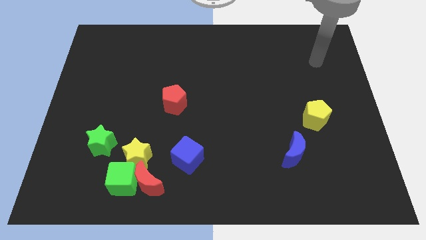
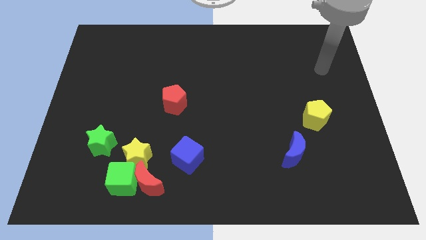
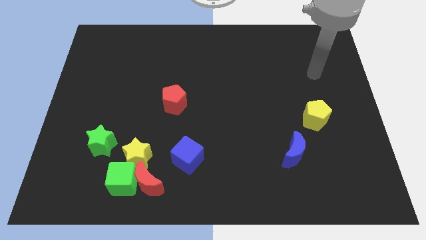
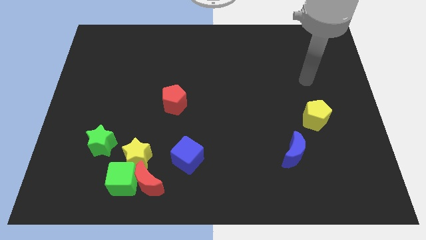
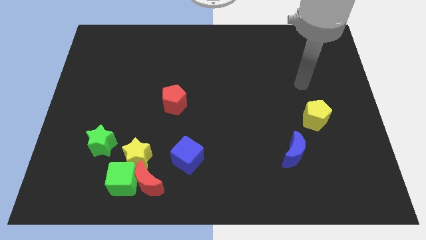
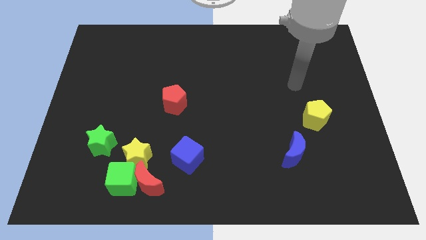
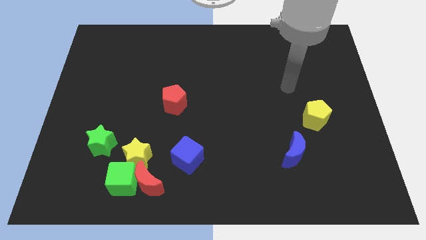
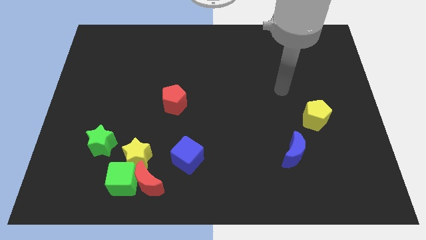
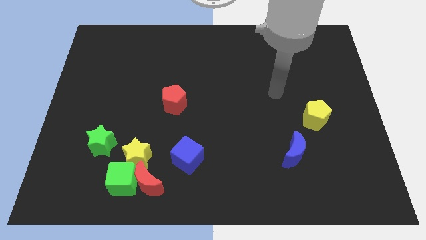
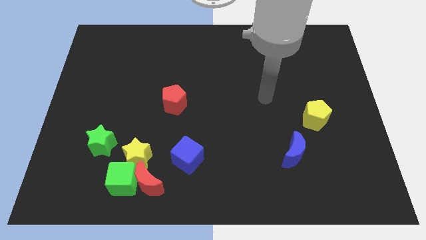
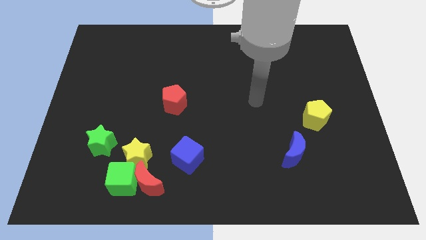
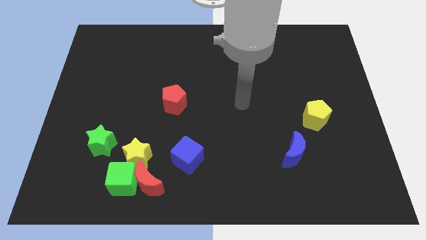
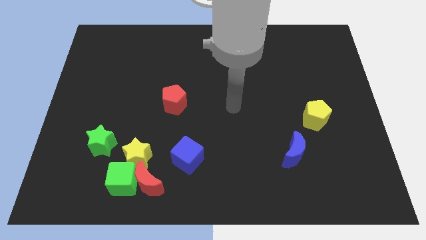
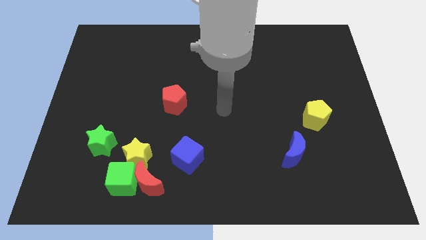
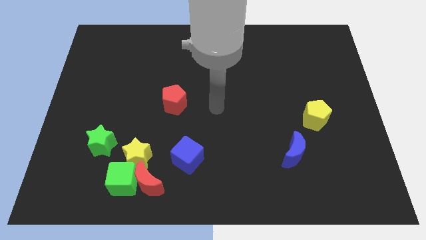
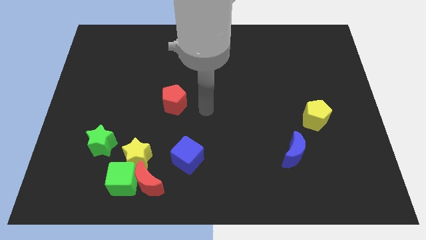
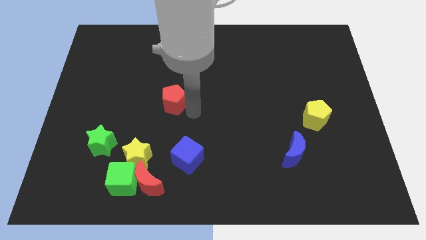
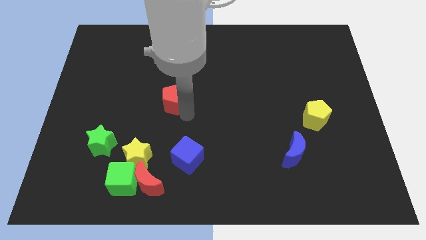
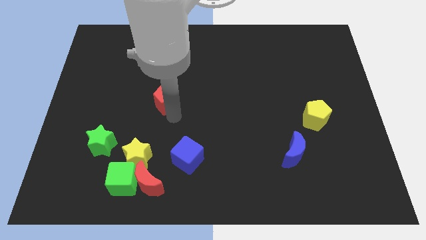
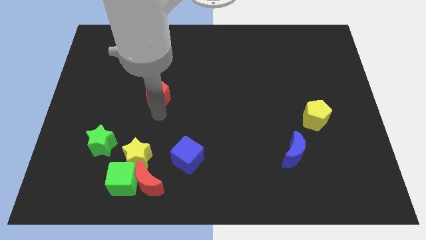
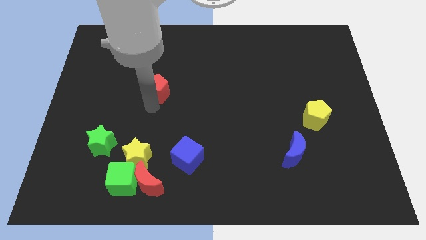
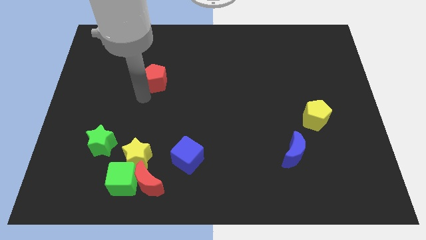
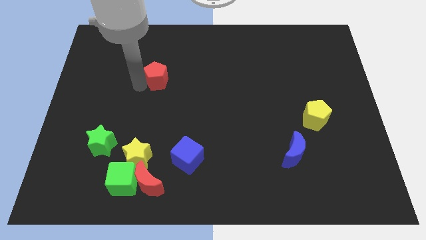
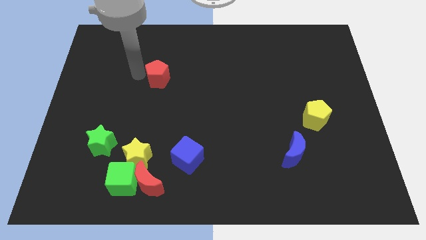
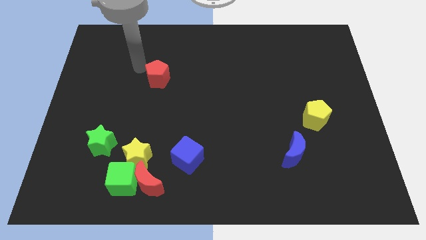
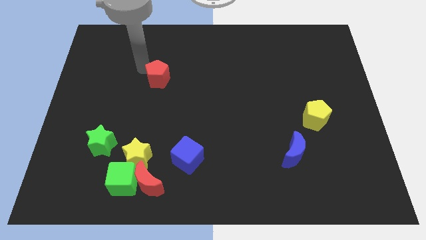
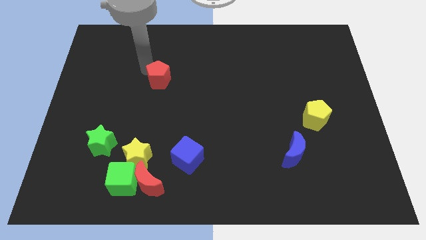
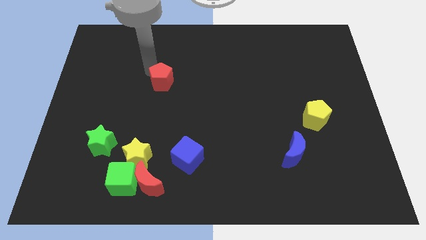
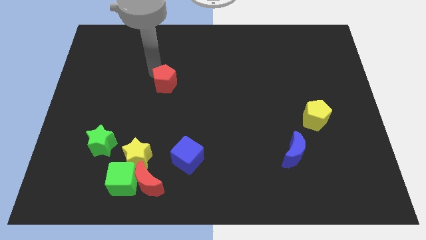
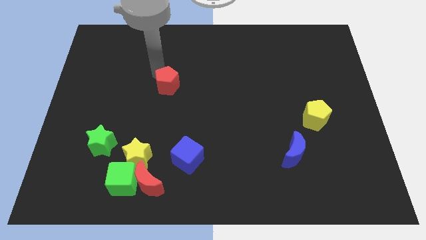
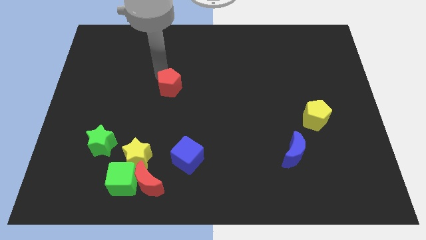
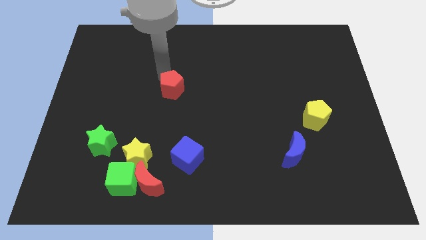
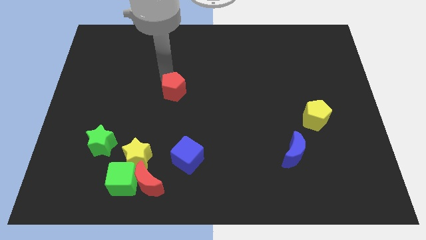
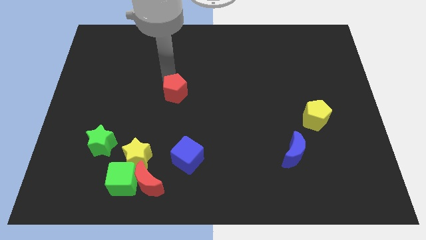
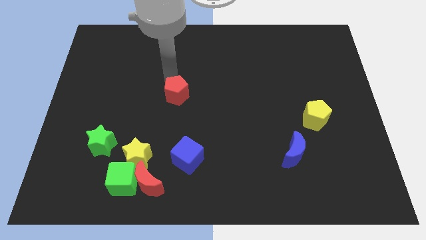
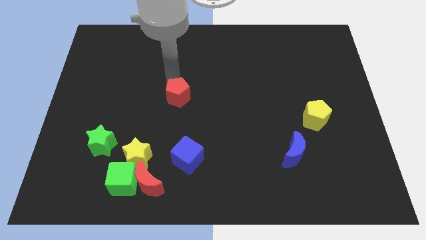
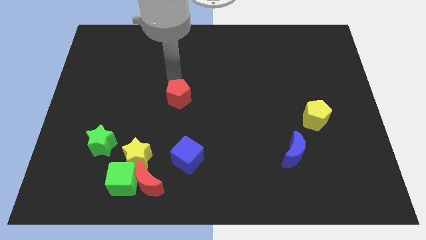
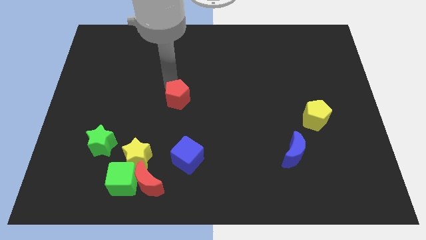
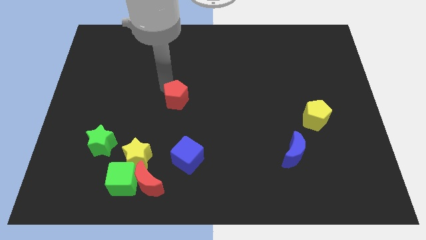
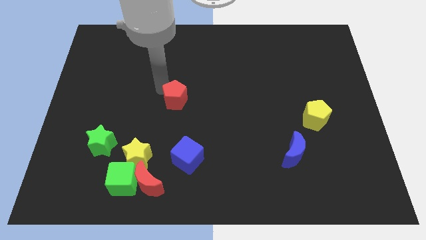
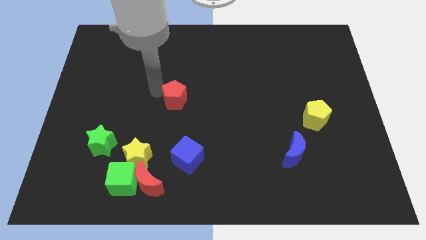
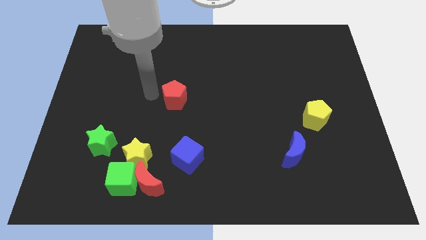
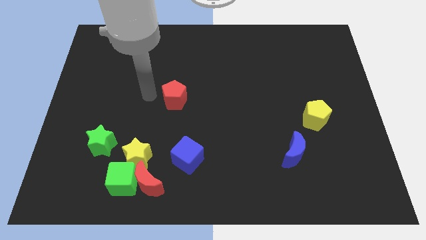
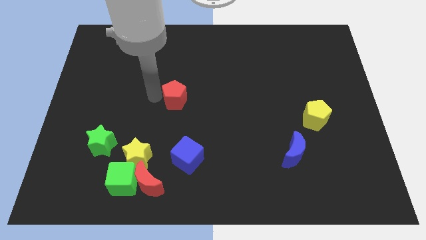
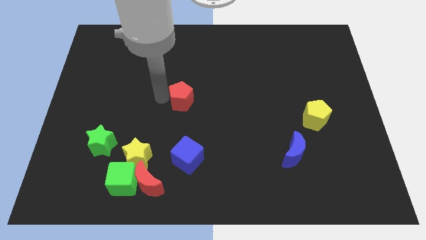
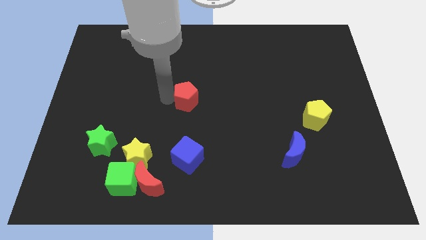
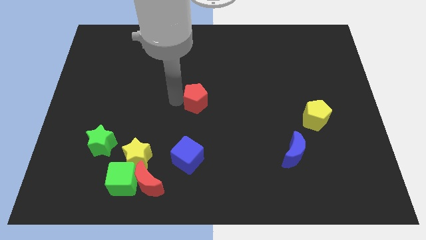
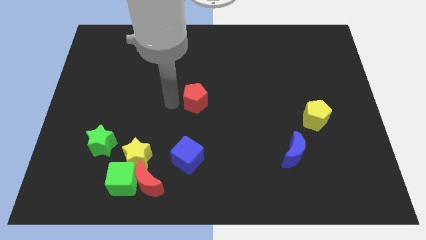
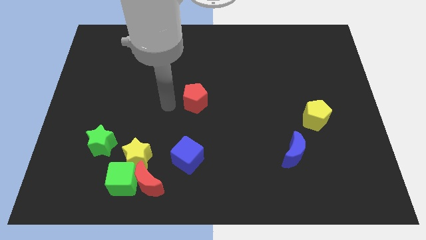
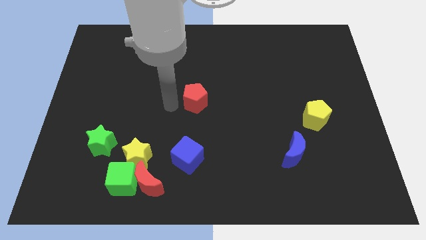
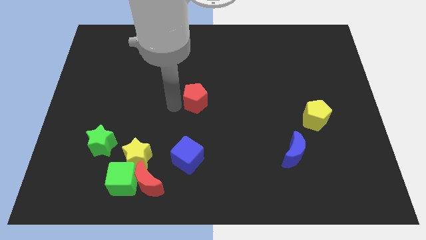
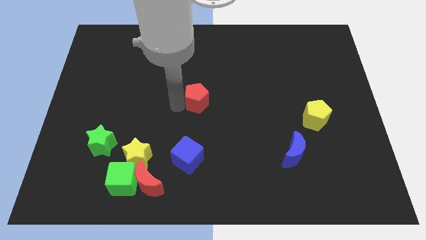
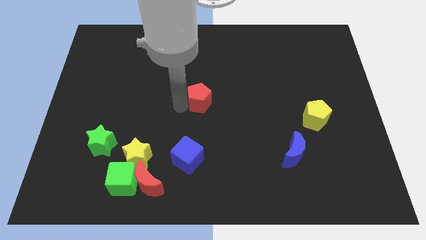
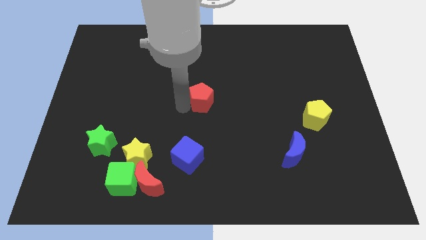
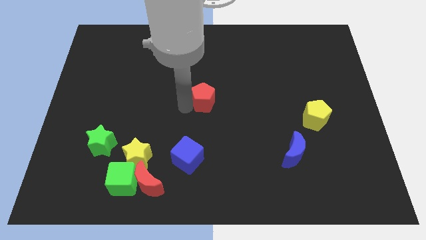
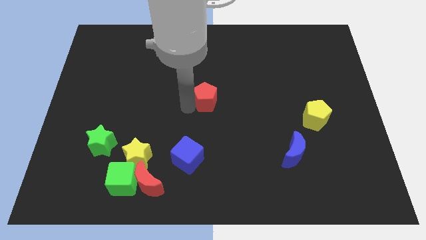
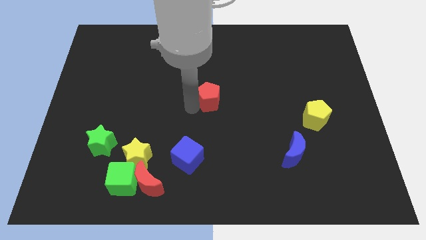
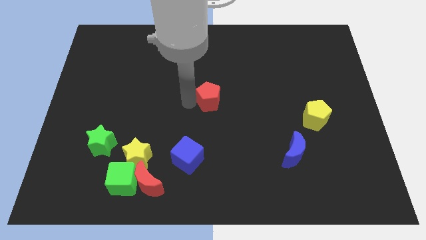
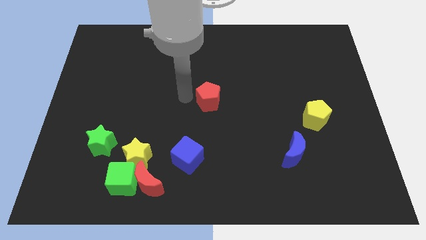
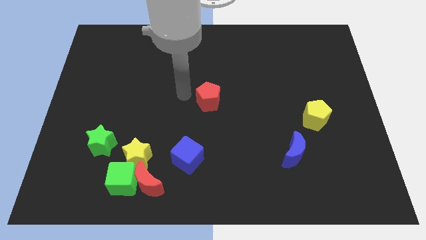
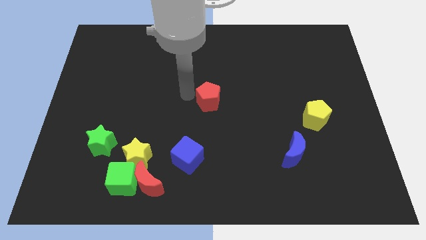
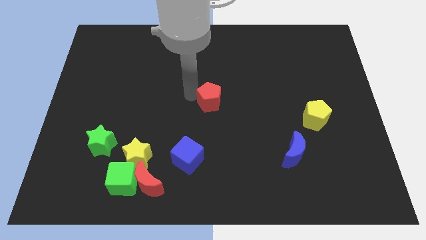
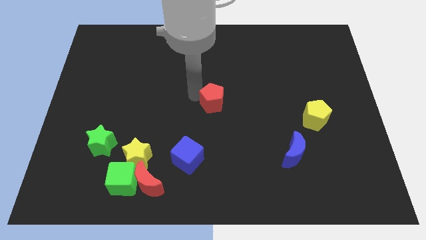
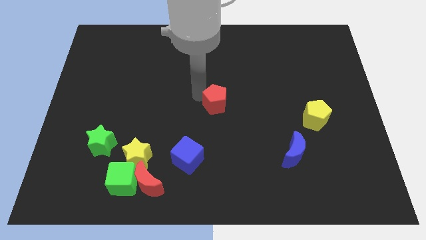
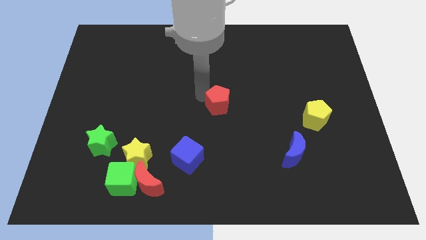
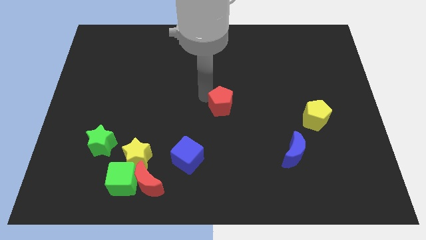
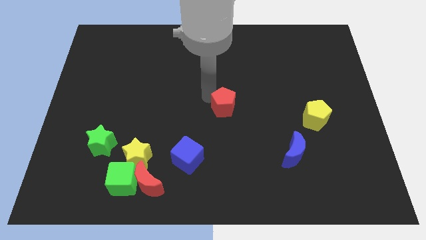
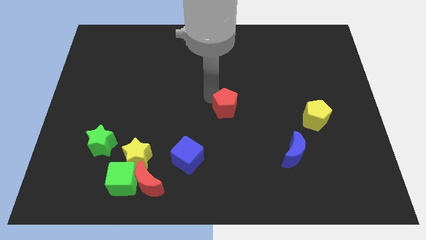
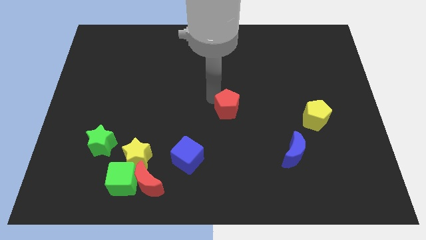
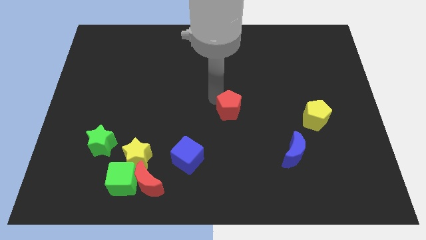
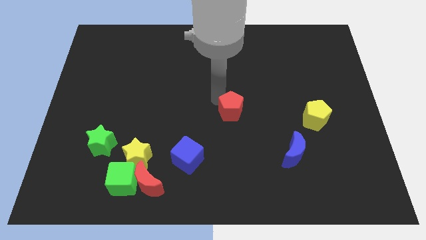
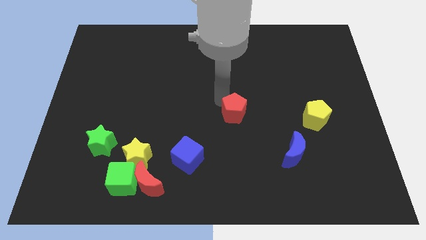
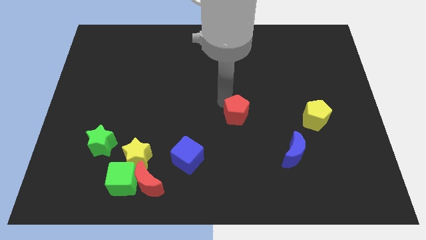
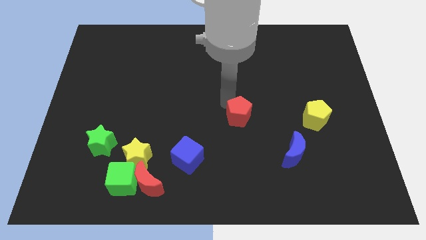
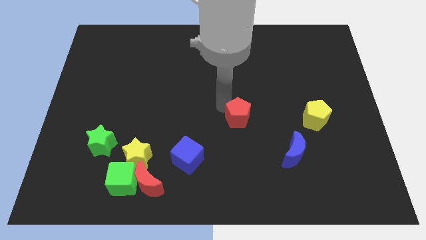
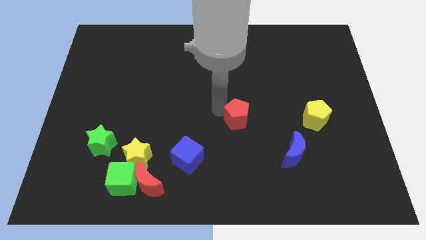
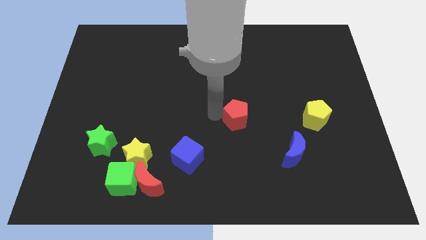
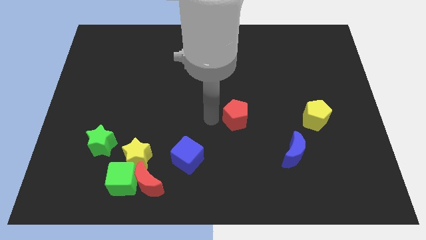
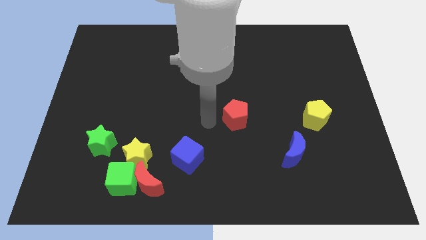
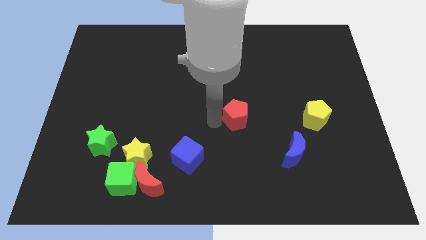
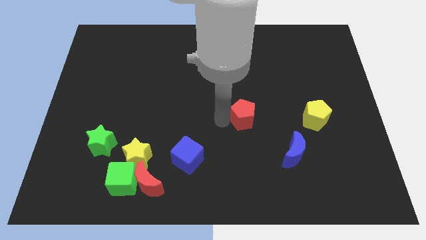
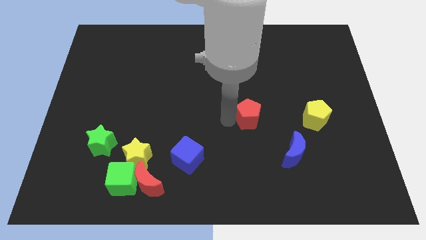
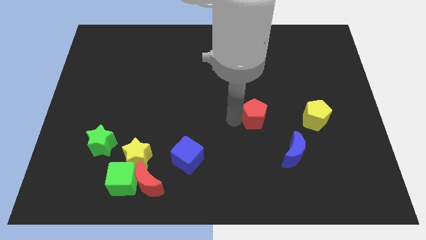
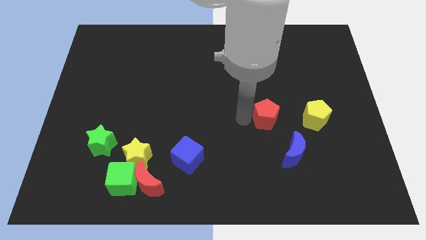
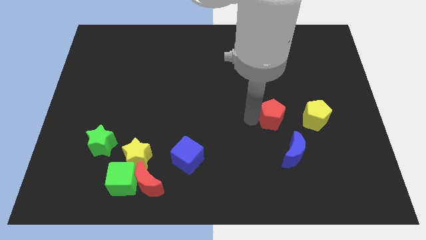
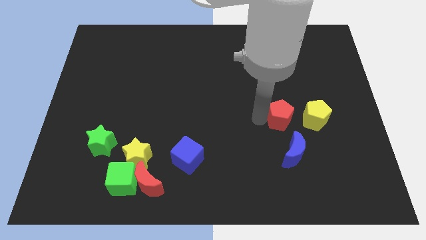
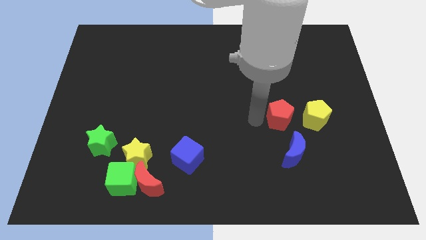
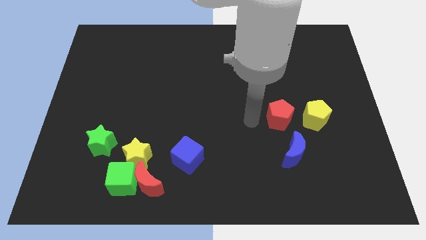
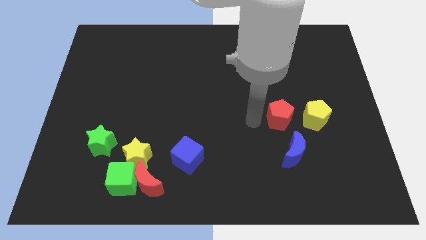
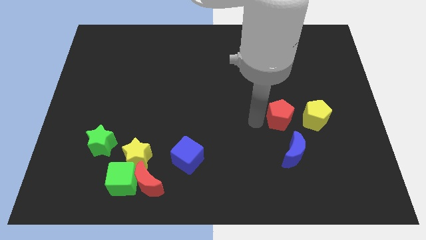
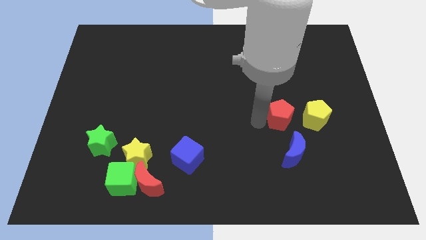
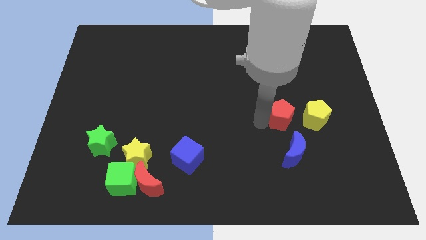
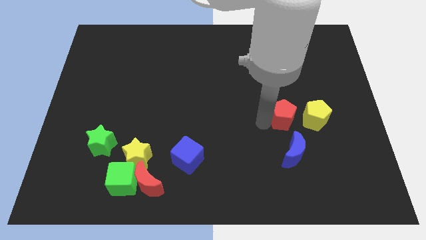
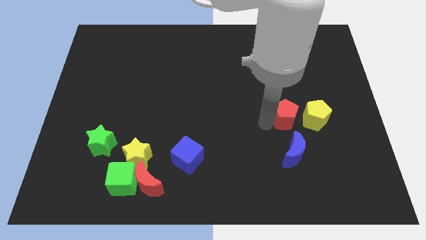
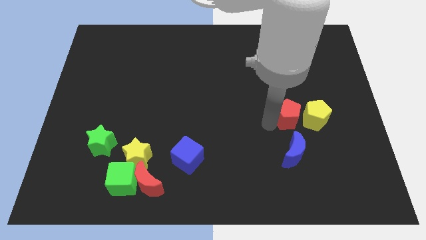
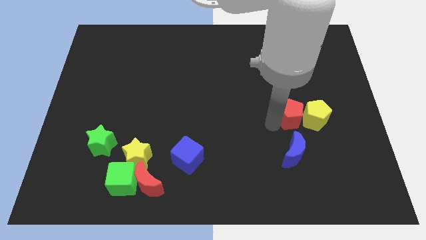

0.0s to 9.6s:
push the red pentagon close to the yellow pentagon
